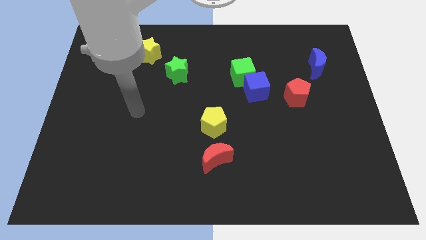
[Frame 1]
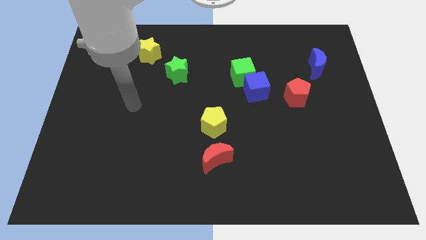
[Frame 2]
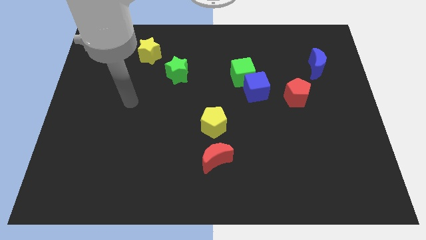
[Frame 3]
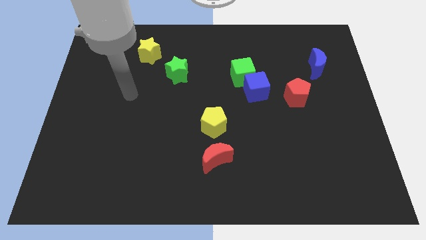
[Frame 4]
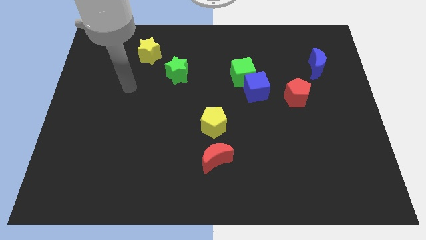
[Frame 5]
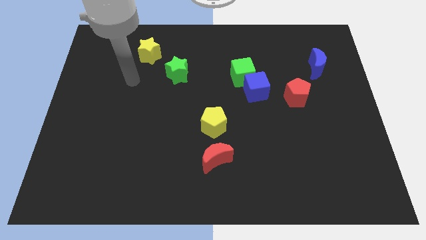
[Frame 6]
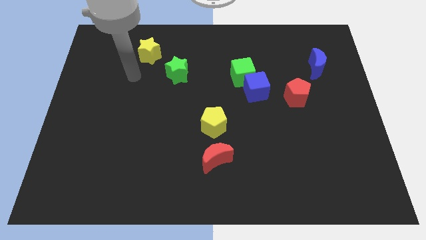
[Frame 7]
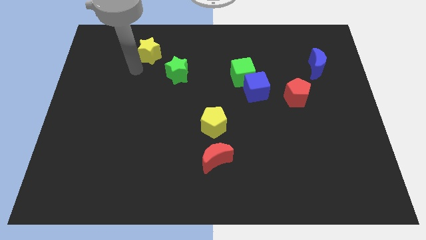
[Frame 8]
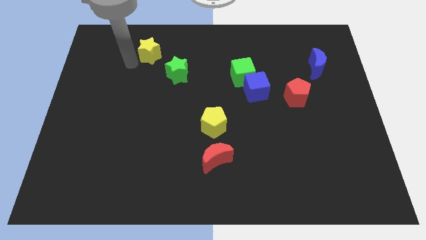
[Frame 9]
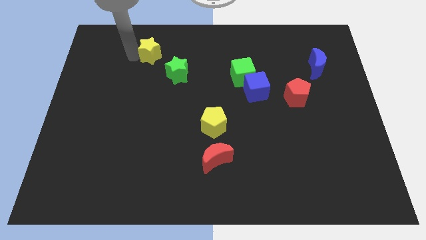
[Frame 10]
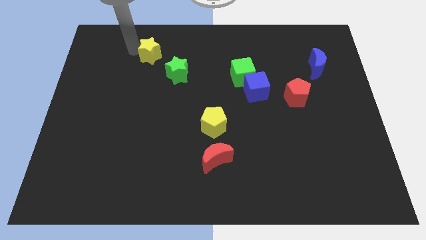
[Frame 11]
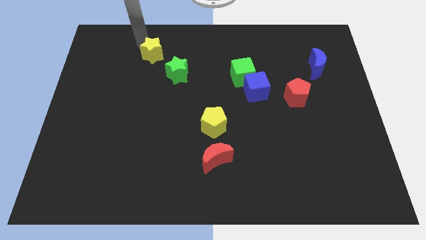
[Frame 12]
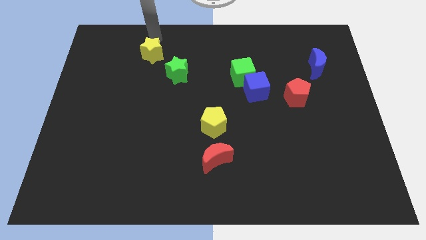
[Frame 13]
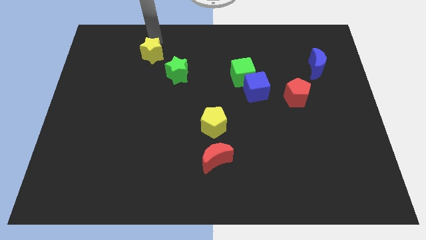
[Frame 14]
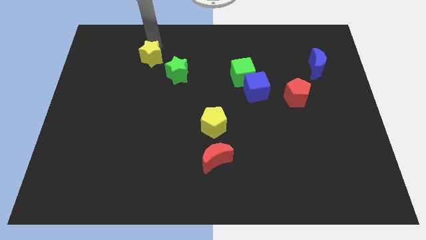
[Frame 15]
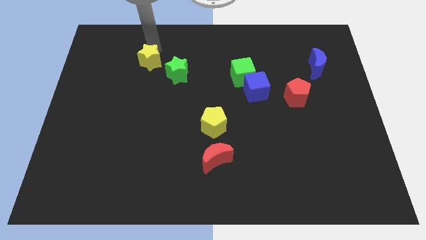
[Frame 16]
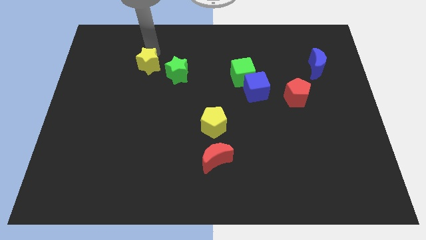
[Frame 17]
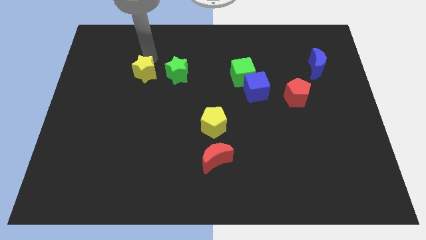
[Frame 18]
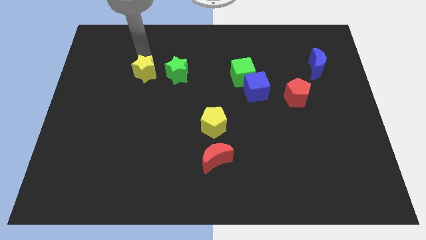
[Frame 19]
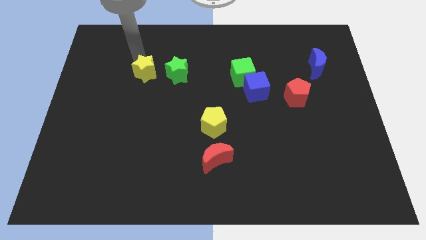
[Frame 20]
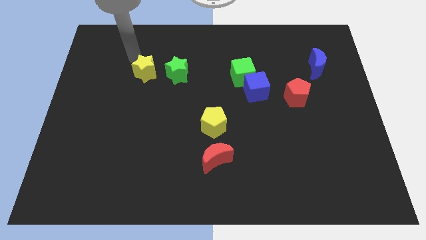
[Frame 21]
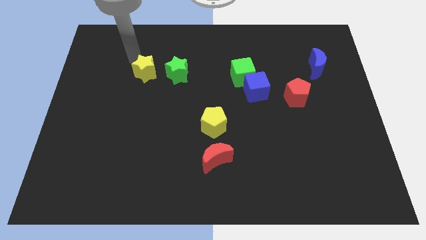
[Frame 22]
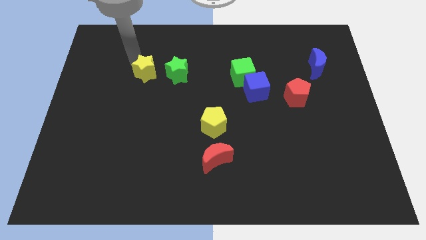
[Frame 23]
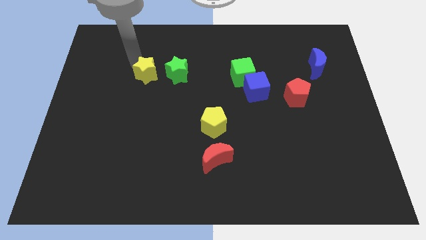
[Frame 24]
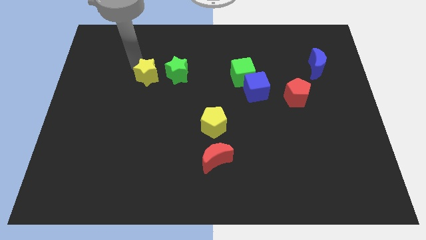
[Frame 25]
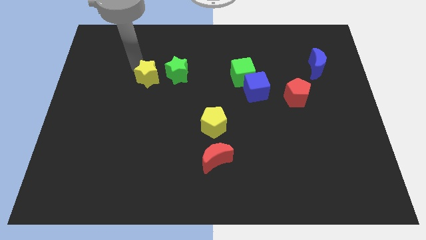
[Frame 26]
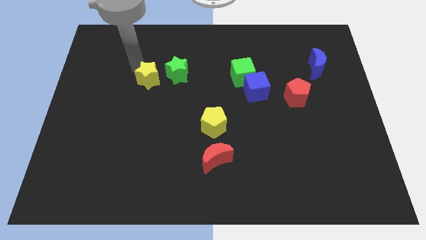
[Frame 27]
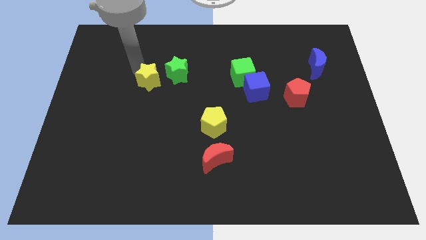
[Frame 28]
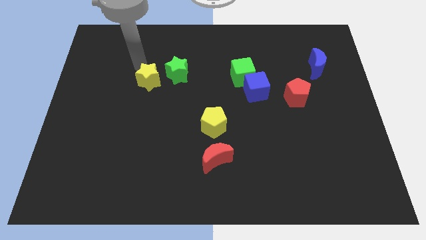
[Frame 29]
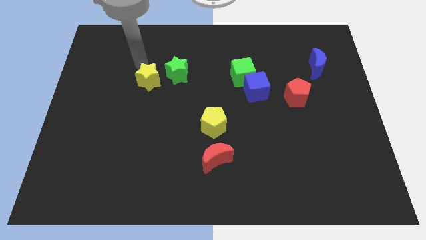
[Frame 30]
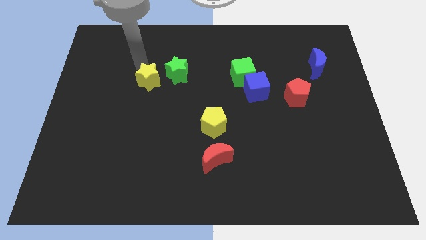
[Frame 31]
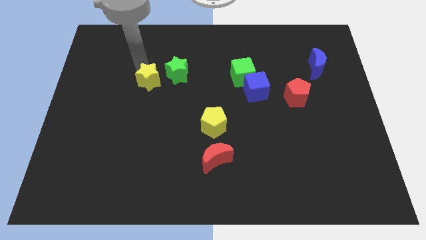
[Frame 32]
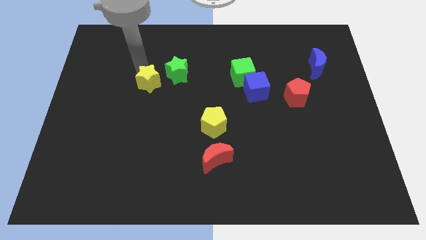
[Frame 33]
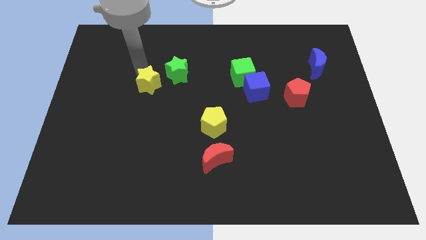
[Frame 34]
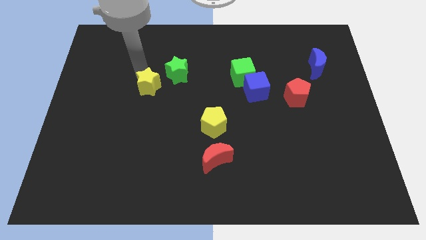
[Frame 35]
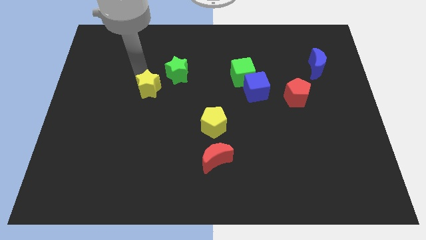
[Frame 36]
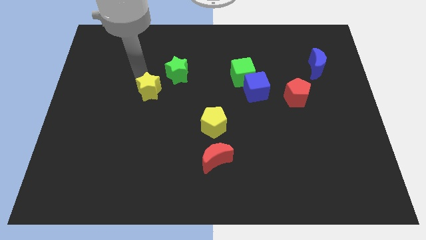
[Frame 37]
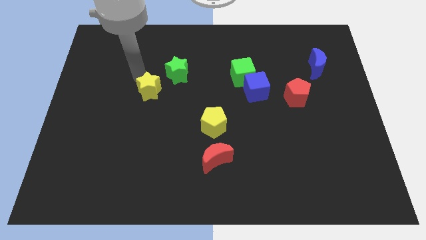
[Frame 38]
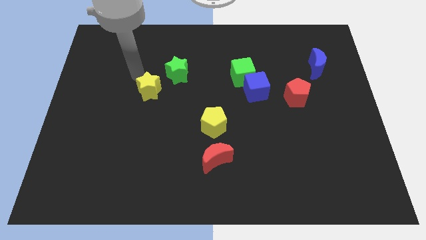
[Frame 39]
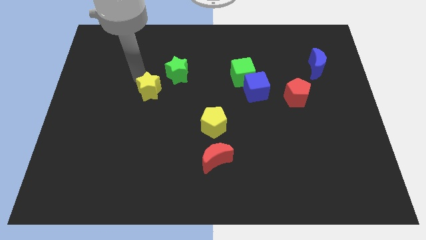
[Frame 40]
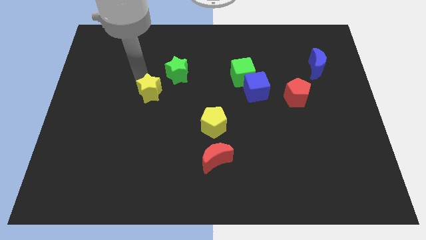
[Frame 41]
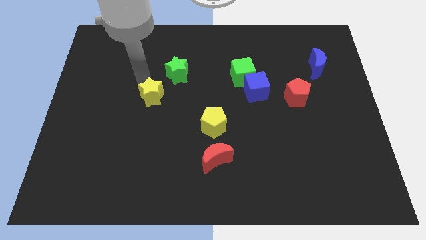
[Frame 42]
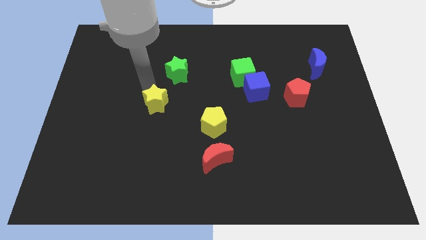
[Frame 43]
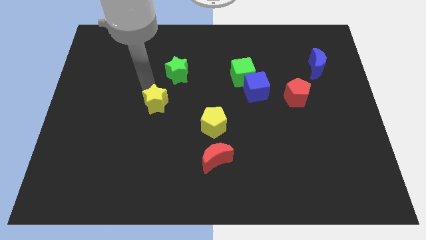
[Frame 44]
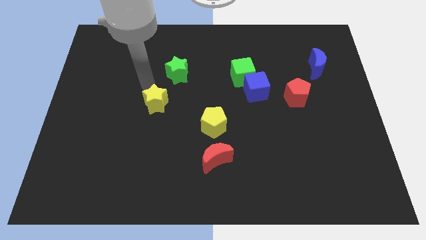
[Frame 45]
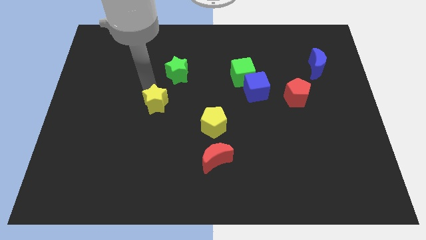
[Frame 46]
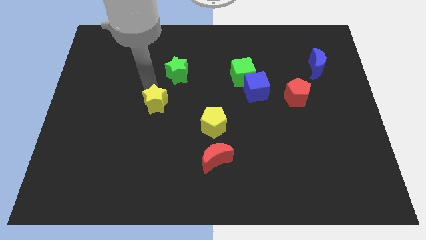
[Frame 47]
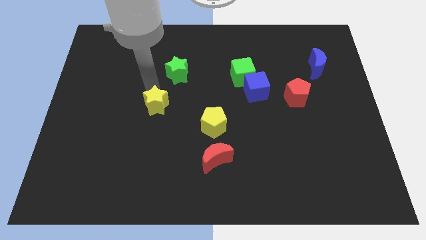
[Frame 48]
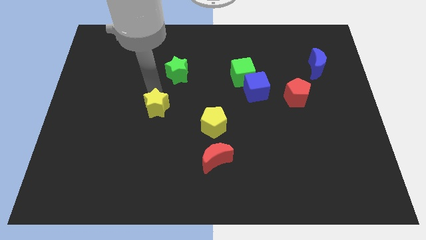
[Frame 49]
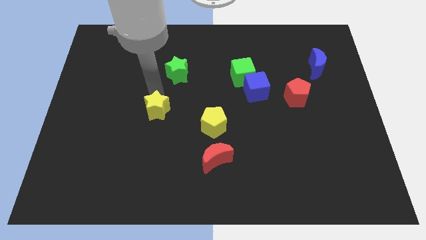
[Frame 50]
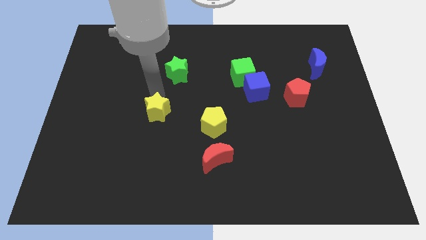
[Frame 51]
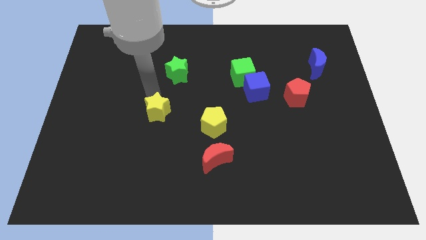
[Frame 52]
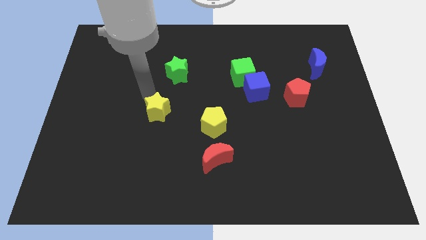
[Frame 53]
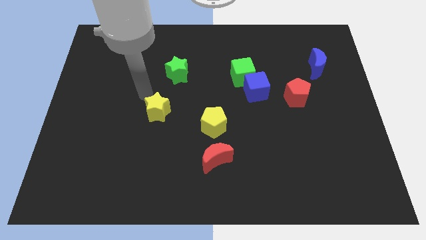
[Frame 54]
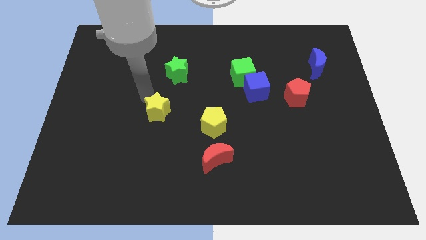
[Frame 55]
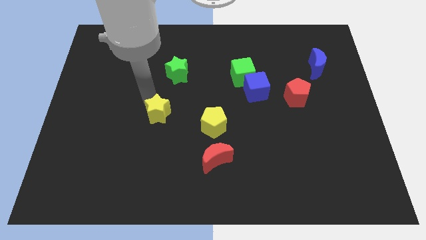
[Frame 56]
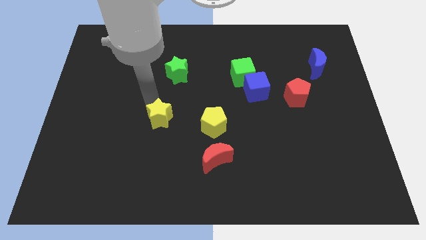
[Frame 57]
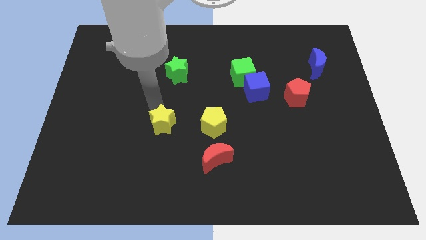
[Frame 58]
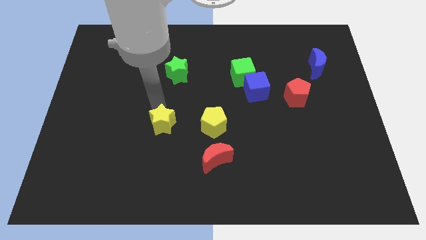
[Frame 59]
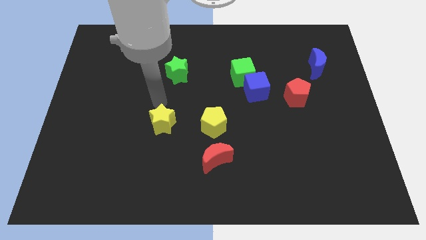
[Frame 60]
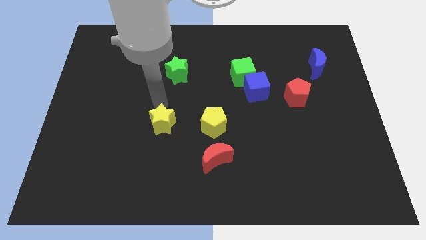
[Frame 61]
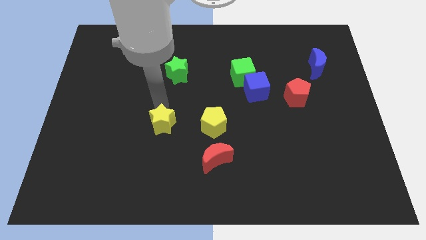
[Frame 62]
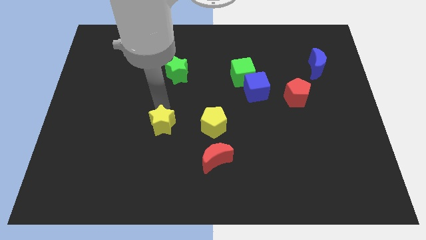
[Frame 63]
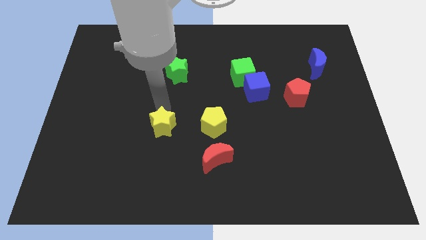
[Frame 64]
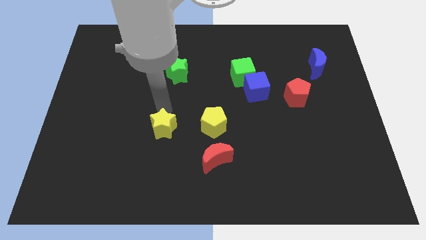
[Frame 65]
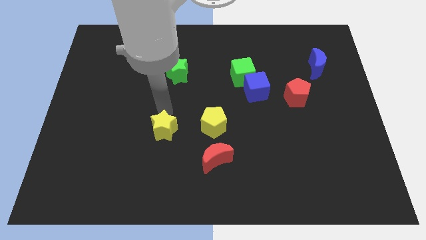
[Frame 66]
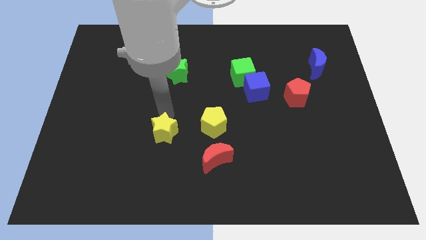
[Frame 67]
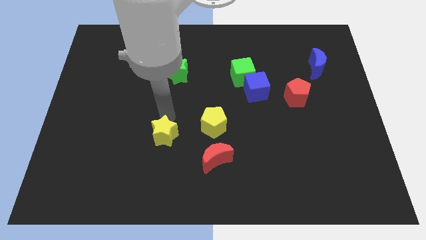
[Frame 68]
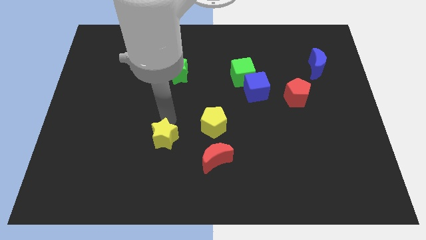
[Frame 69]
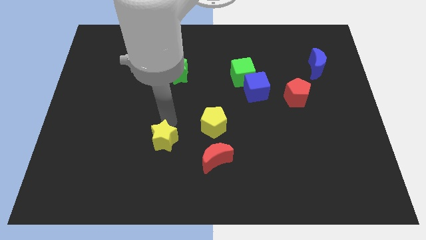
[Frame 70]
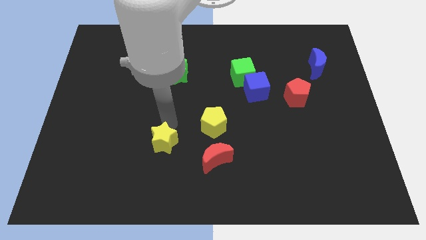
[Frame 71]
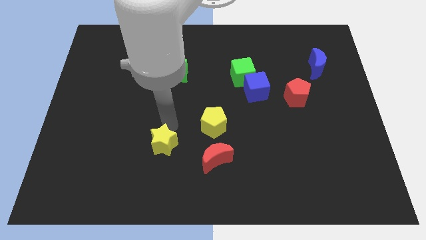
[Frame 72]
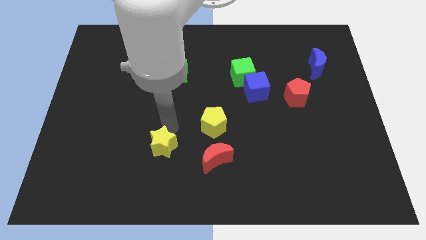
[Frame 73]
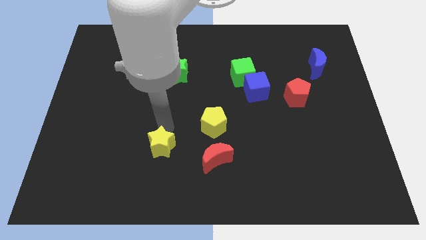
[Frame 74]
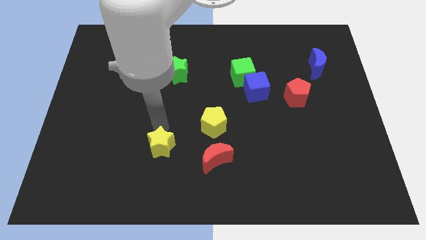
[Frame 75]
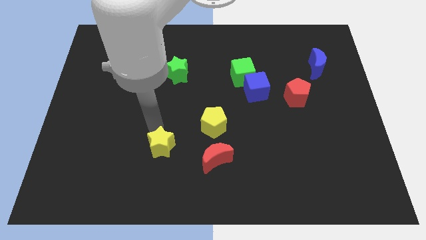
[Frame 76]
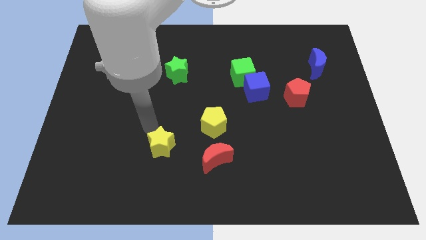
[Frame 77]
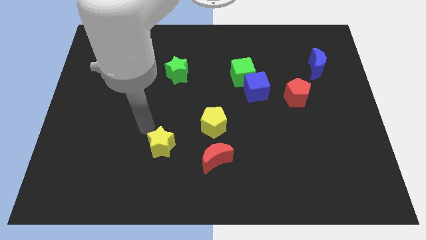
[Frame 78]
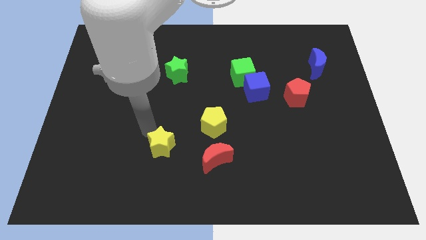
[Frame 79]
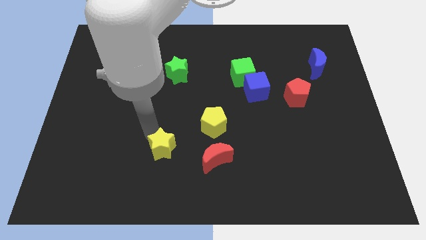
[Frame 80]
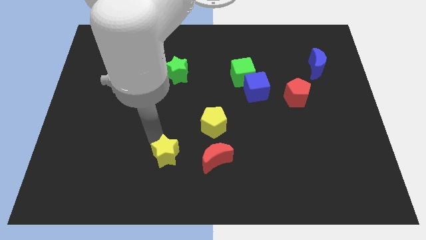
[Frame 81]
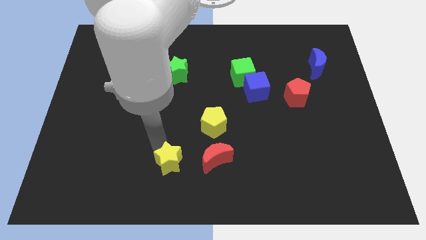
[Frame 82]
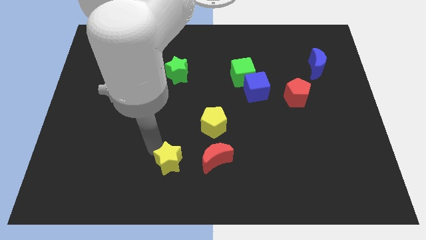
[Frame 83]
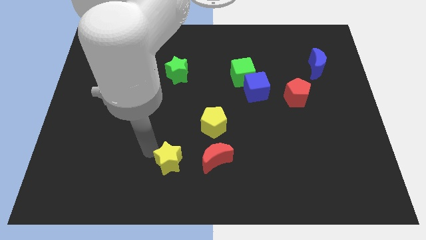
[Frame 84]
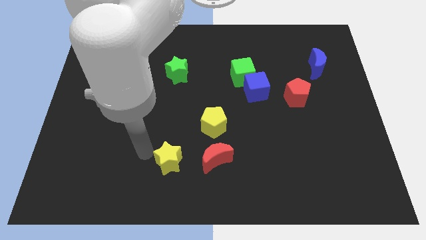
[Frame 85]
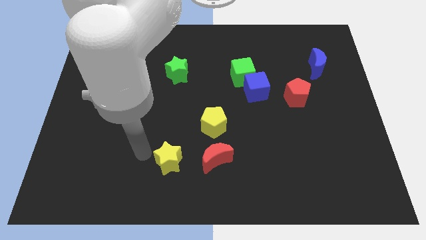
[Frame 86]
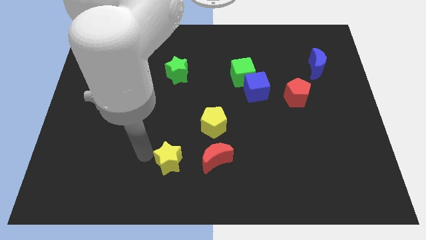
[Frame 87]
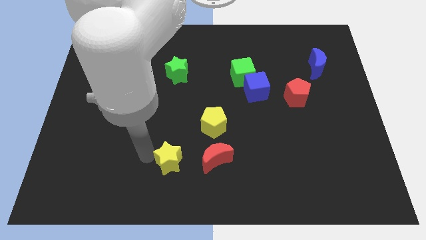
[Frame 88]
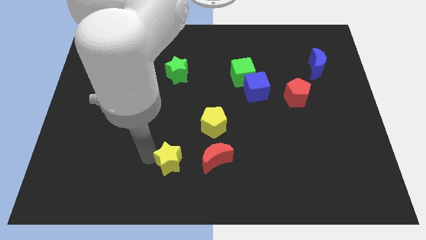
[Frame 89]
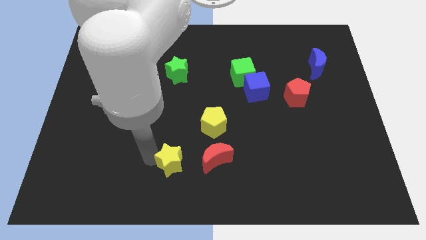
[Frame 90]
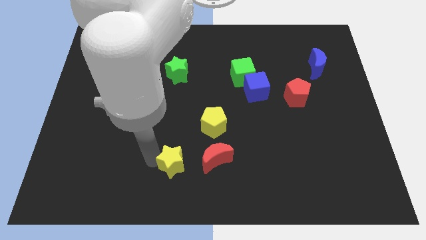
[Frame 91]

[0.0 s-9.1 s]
move the yellow star to the bottom
